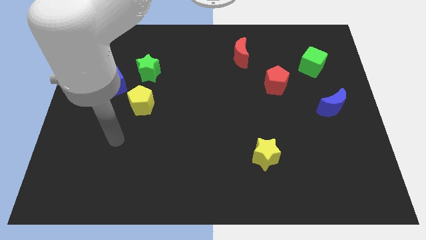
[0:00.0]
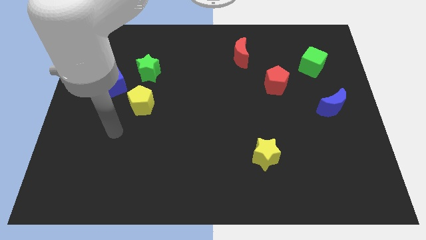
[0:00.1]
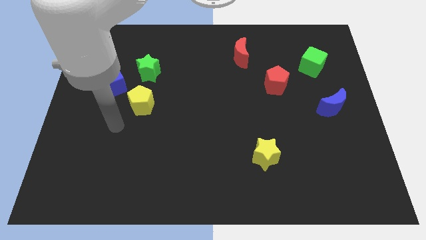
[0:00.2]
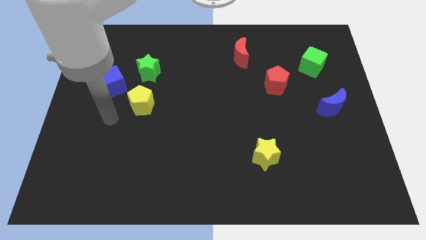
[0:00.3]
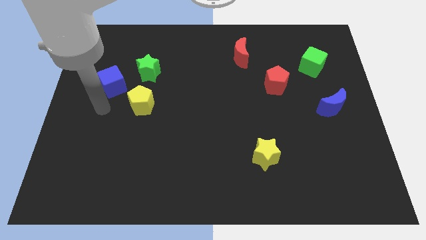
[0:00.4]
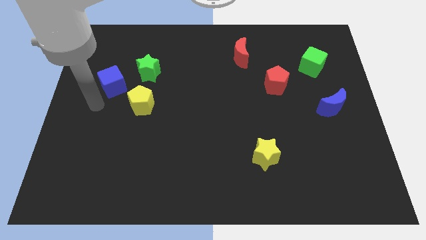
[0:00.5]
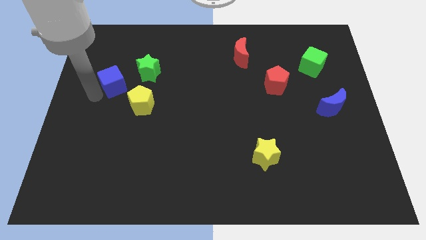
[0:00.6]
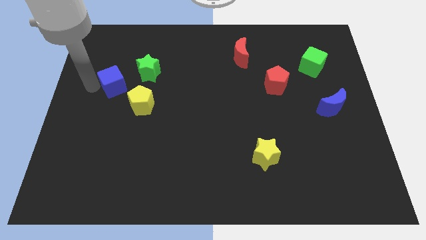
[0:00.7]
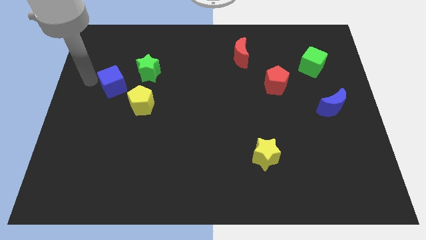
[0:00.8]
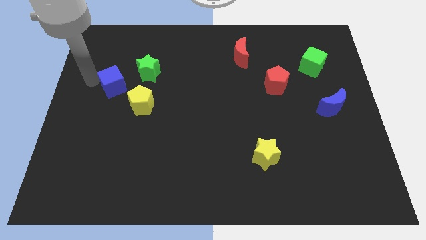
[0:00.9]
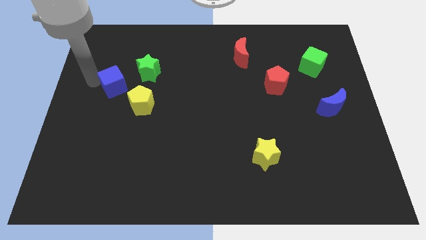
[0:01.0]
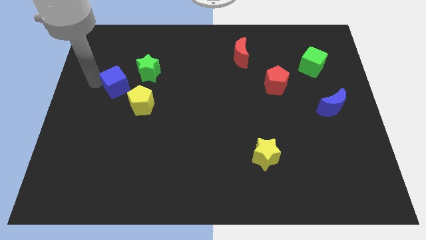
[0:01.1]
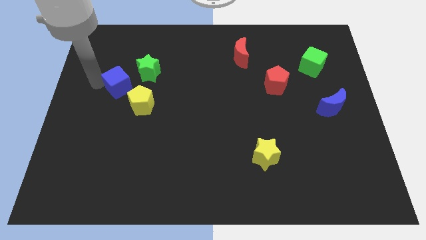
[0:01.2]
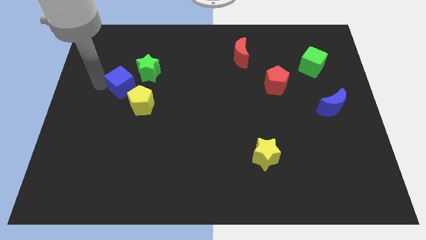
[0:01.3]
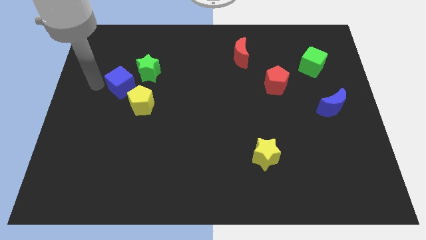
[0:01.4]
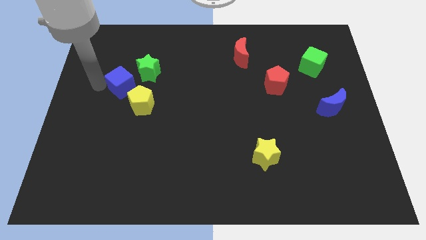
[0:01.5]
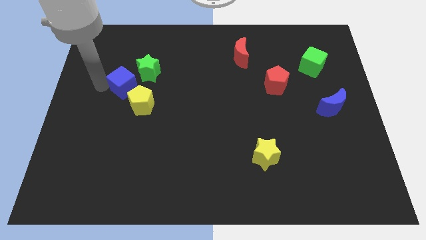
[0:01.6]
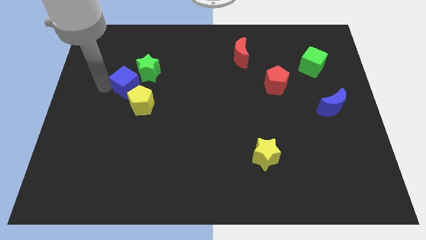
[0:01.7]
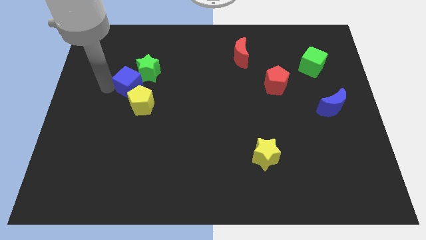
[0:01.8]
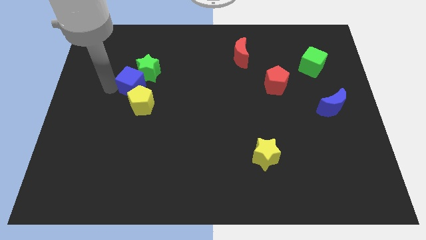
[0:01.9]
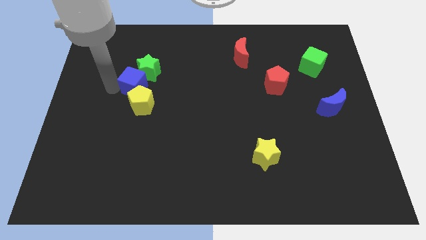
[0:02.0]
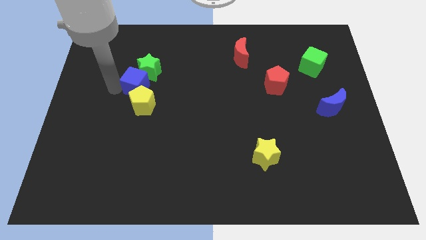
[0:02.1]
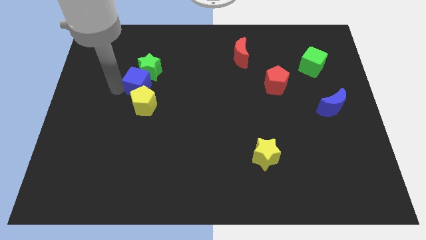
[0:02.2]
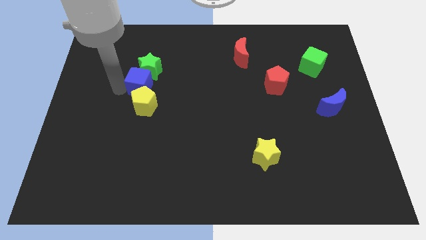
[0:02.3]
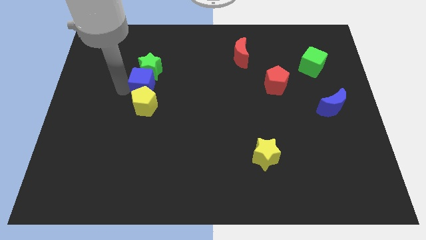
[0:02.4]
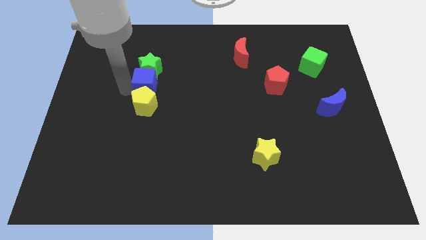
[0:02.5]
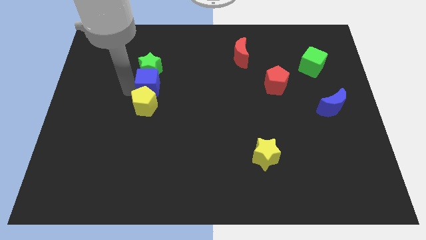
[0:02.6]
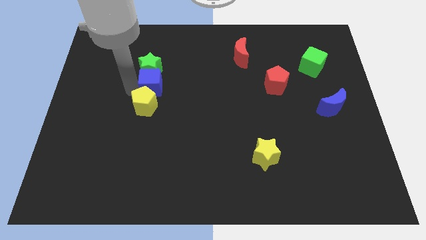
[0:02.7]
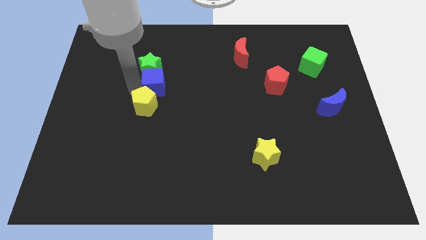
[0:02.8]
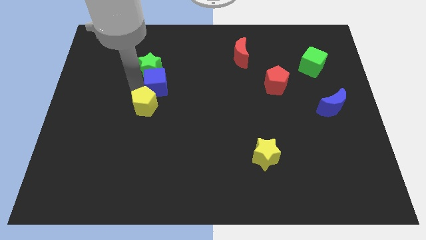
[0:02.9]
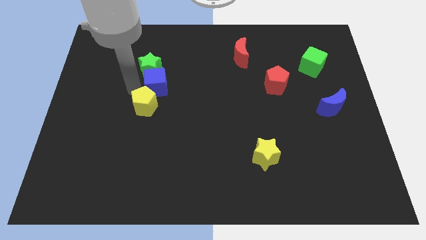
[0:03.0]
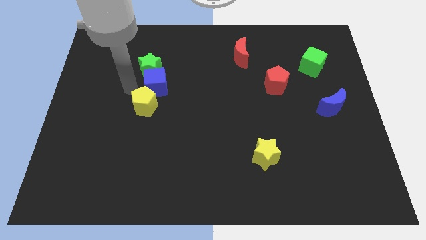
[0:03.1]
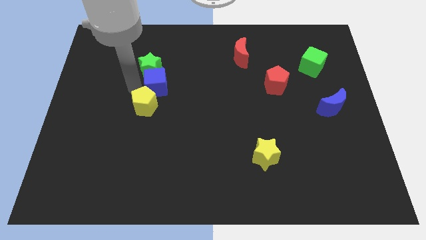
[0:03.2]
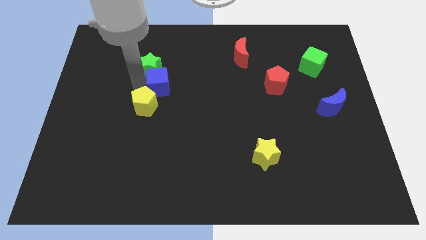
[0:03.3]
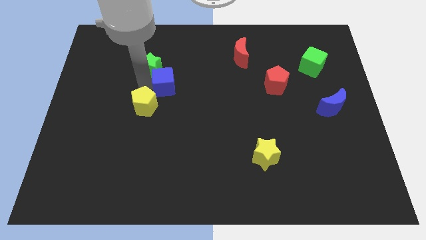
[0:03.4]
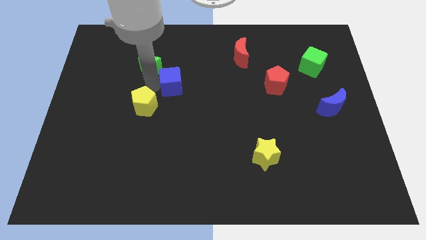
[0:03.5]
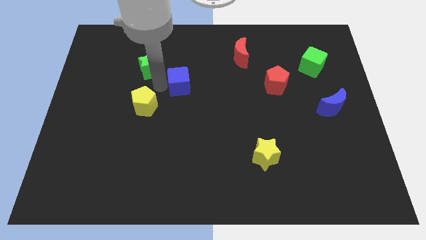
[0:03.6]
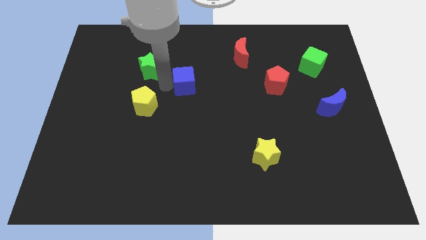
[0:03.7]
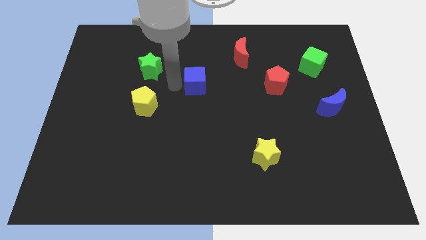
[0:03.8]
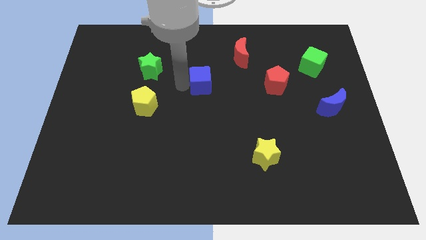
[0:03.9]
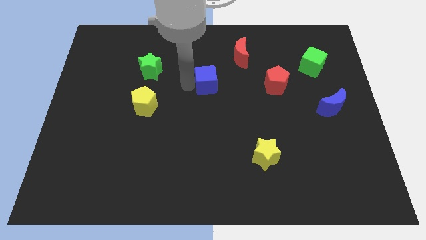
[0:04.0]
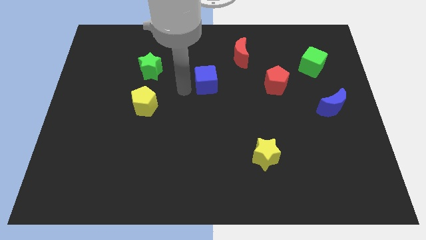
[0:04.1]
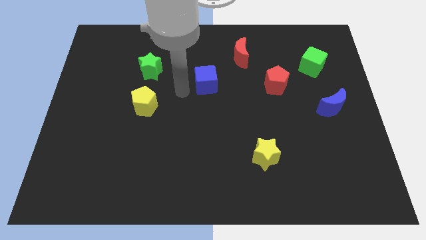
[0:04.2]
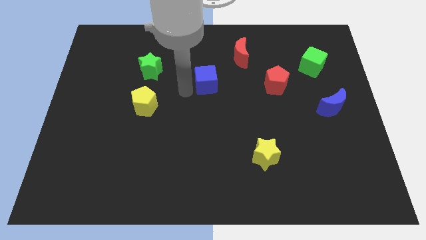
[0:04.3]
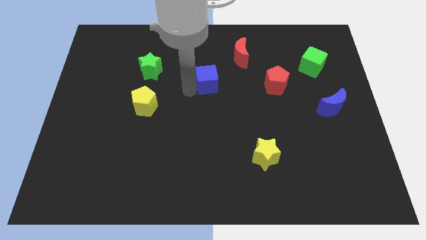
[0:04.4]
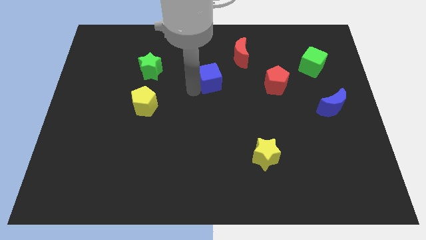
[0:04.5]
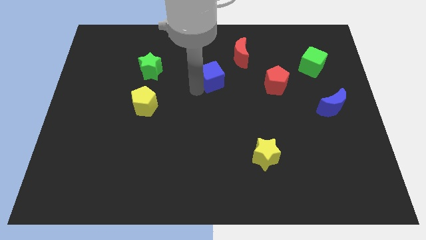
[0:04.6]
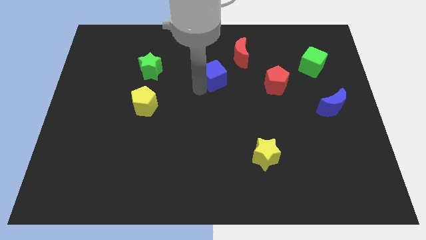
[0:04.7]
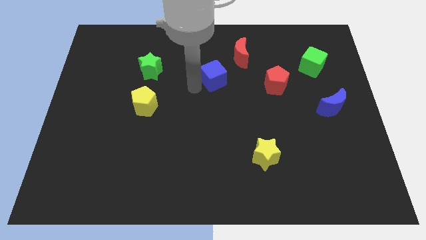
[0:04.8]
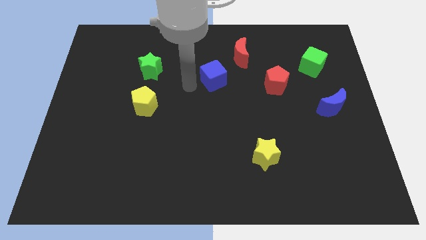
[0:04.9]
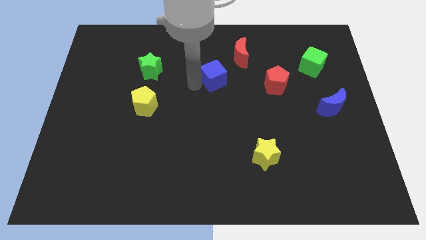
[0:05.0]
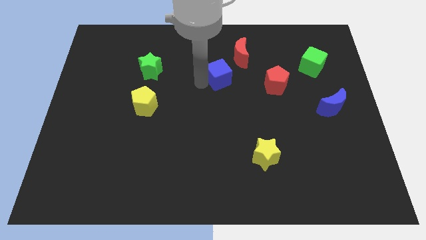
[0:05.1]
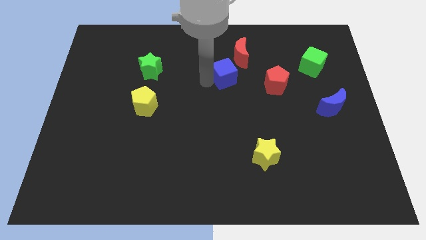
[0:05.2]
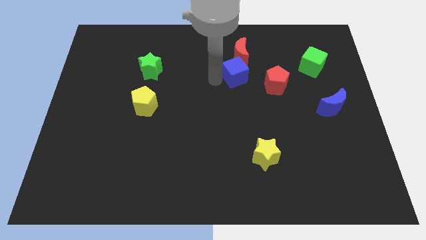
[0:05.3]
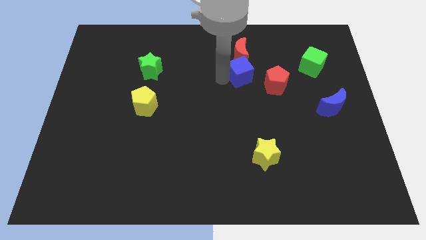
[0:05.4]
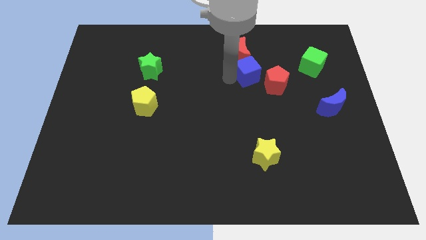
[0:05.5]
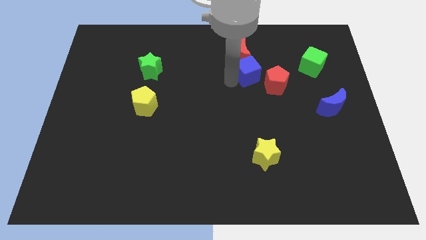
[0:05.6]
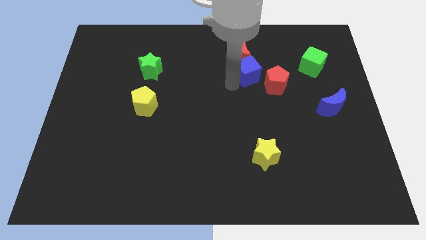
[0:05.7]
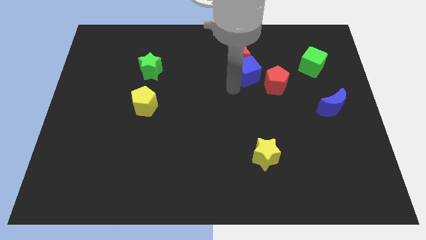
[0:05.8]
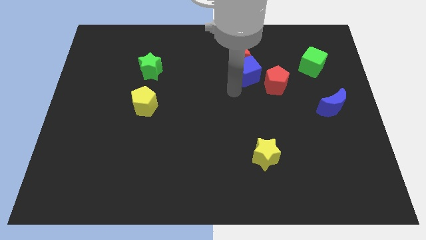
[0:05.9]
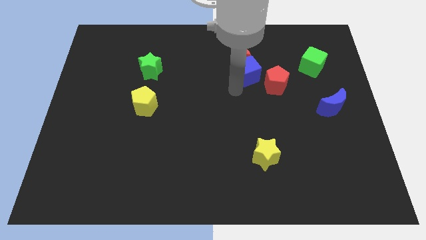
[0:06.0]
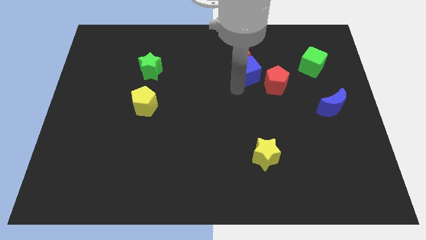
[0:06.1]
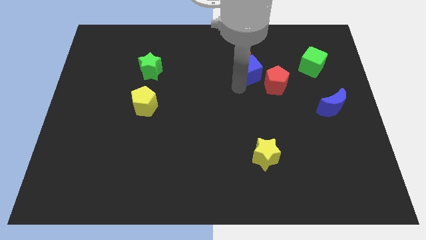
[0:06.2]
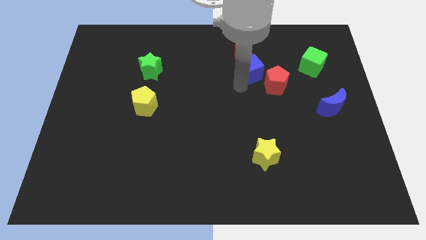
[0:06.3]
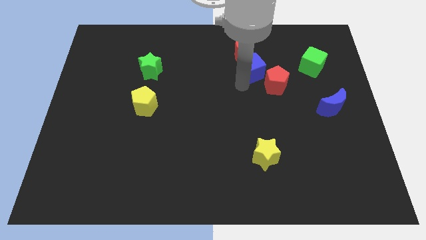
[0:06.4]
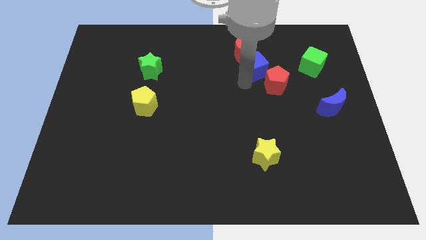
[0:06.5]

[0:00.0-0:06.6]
move the blue cube to the top side of the red pentagon
